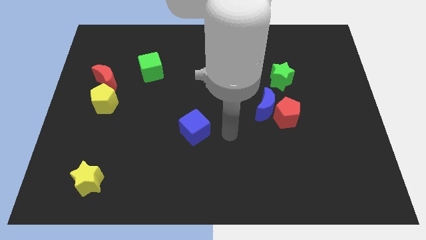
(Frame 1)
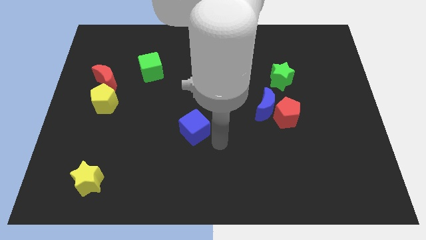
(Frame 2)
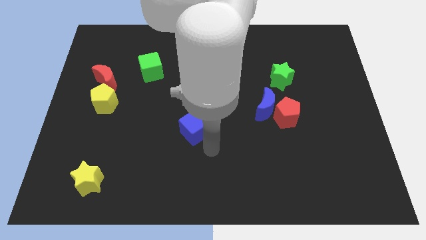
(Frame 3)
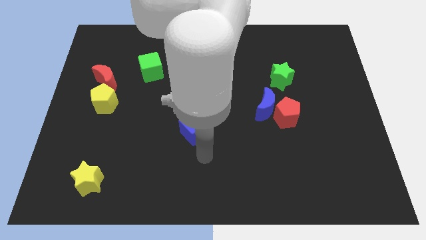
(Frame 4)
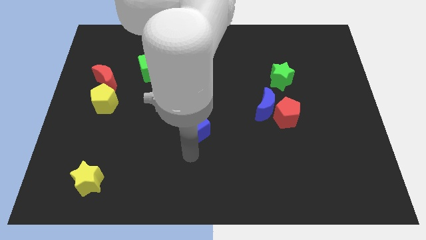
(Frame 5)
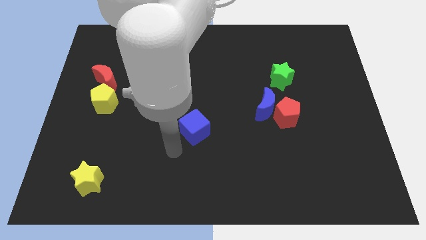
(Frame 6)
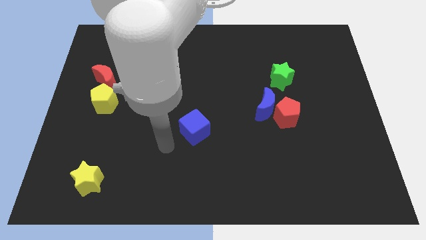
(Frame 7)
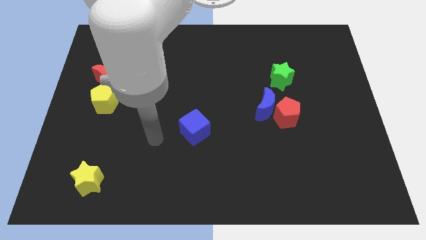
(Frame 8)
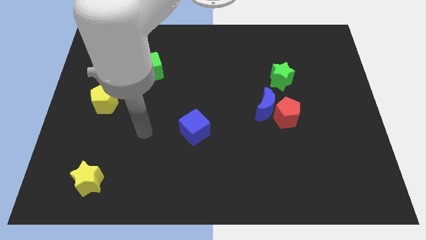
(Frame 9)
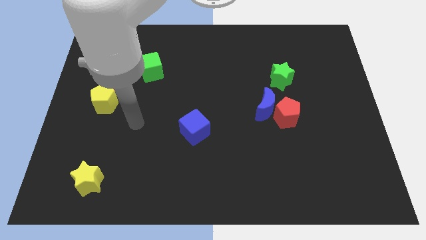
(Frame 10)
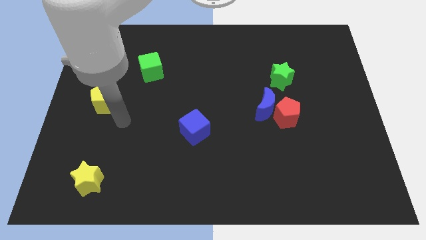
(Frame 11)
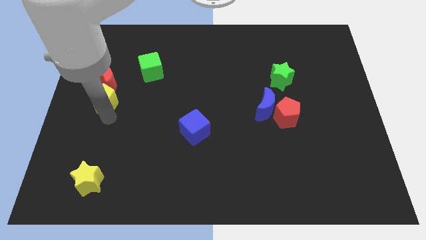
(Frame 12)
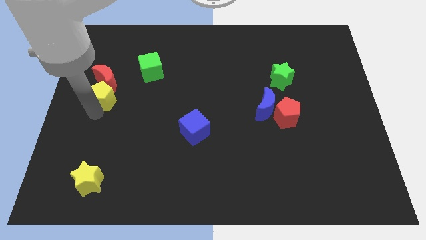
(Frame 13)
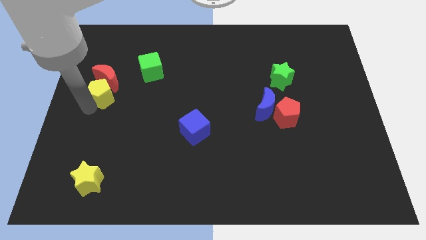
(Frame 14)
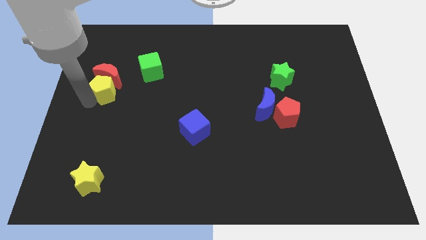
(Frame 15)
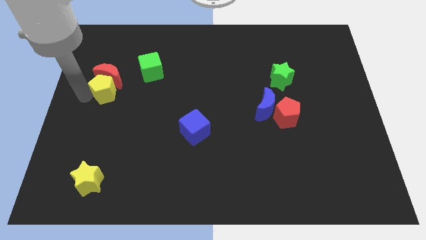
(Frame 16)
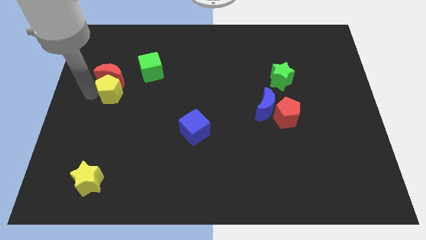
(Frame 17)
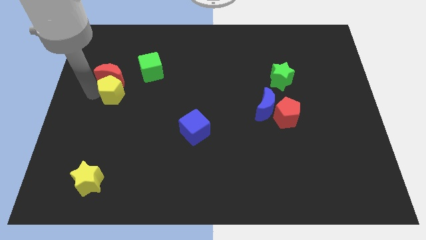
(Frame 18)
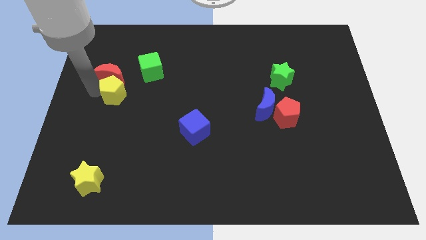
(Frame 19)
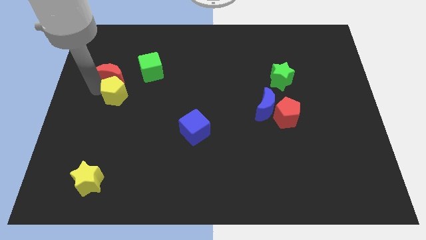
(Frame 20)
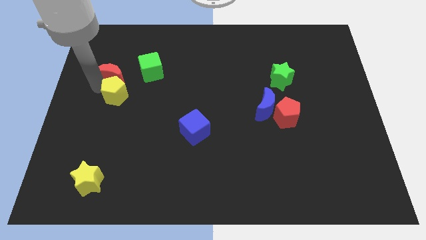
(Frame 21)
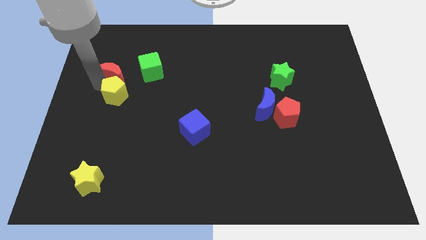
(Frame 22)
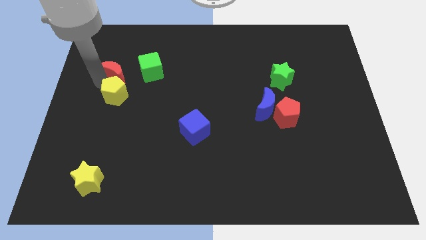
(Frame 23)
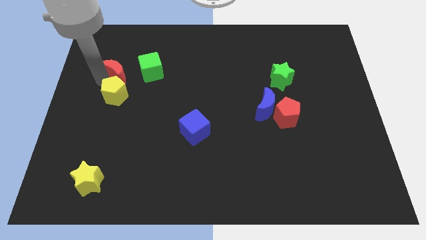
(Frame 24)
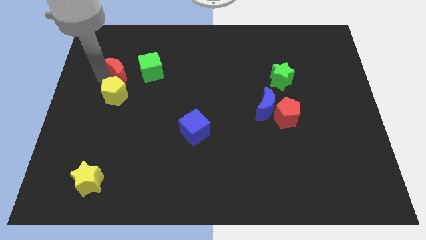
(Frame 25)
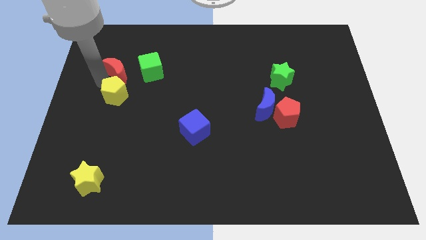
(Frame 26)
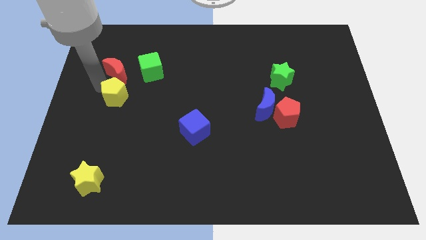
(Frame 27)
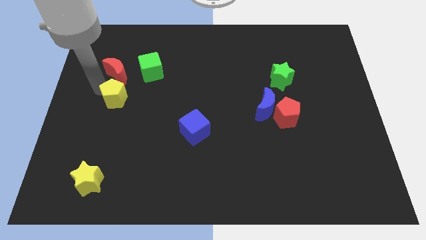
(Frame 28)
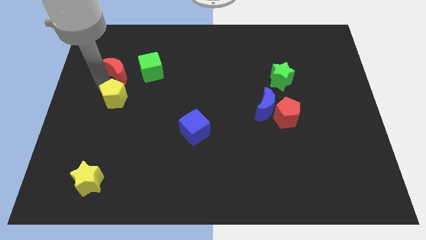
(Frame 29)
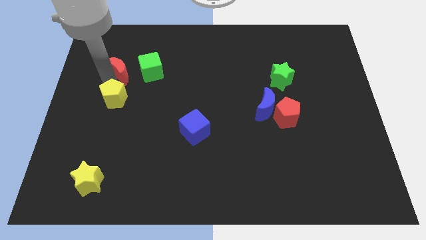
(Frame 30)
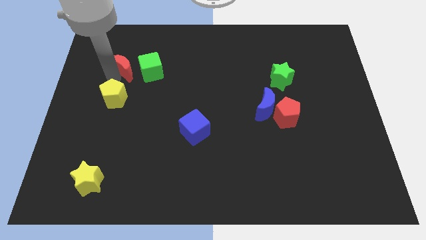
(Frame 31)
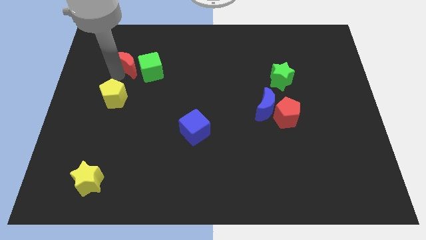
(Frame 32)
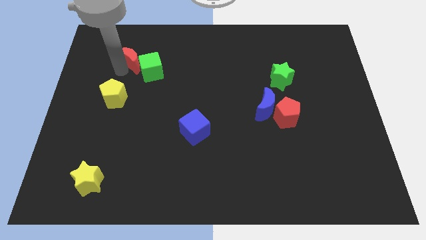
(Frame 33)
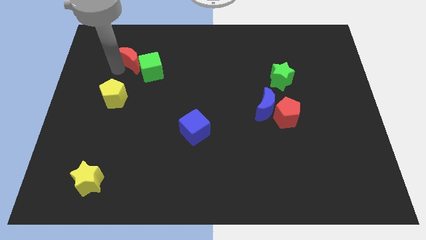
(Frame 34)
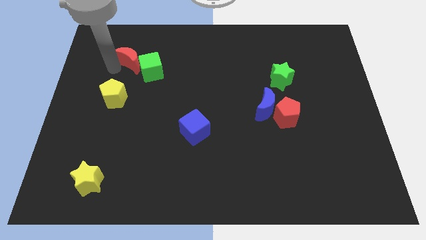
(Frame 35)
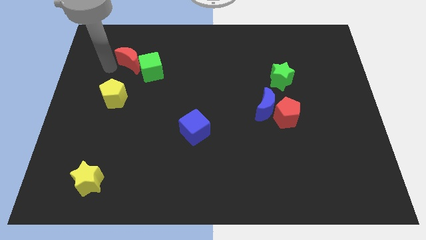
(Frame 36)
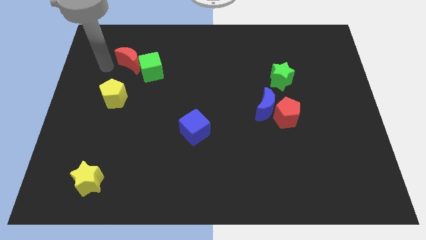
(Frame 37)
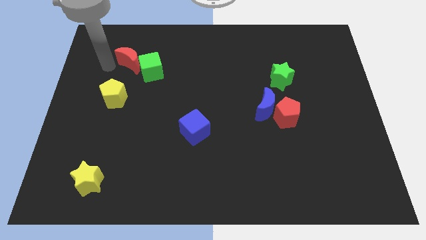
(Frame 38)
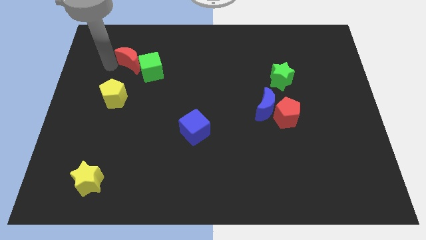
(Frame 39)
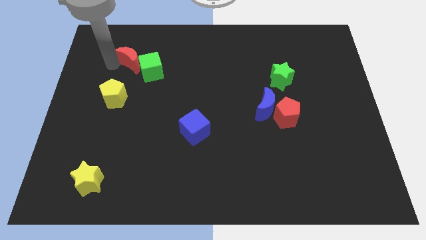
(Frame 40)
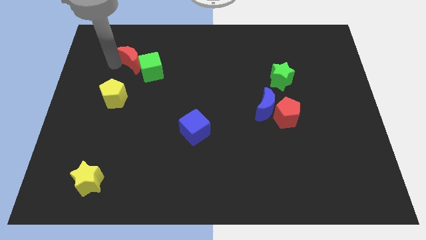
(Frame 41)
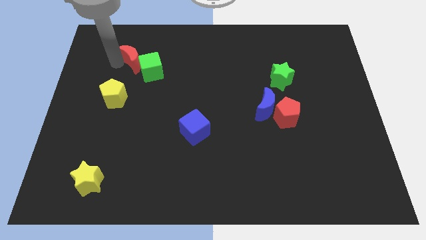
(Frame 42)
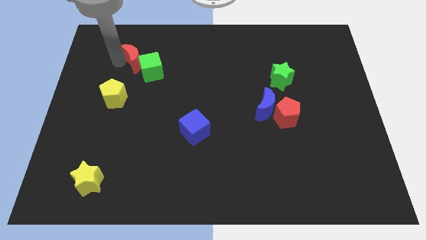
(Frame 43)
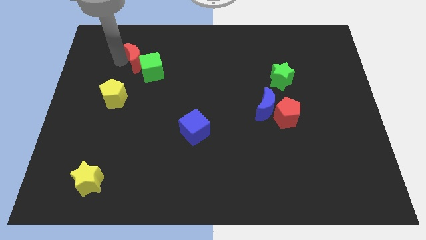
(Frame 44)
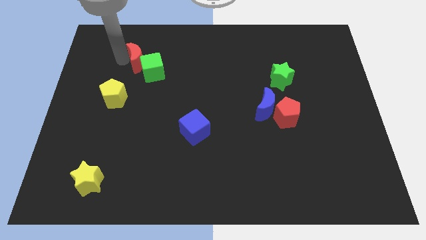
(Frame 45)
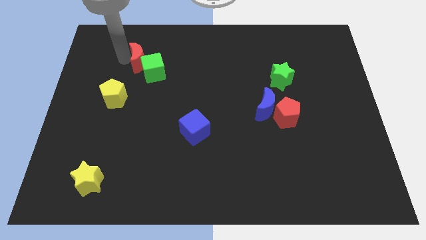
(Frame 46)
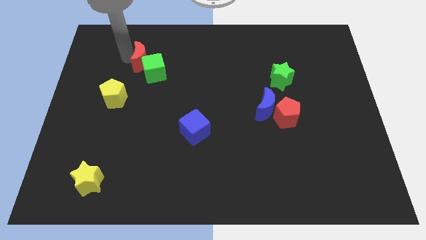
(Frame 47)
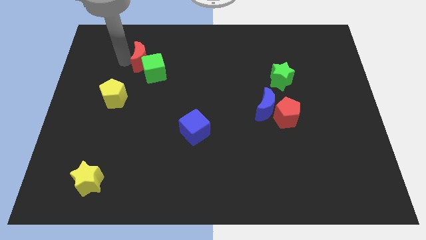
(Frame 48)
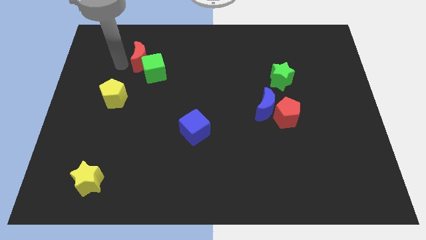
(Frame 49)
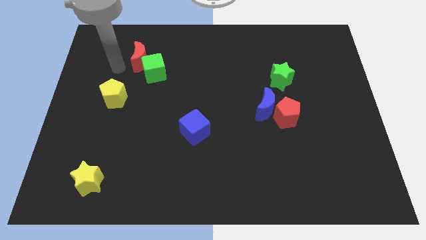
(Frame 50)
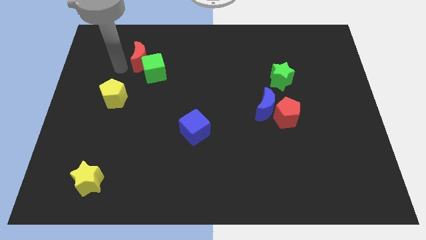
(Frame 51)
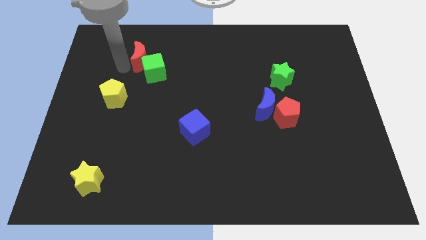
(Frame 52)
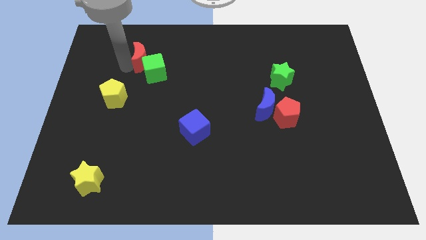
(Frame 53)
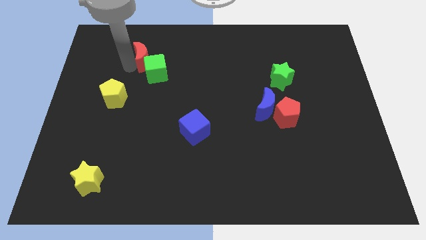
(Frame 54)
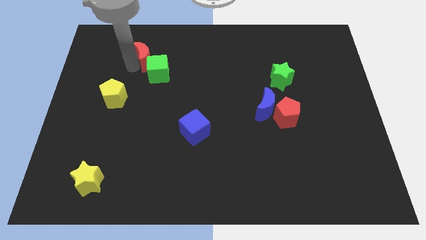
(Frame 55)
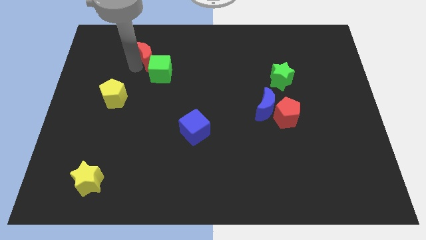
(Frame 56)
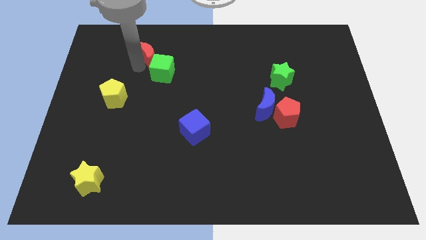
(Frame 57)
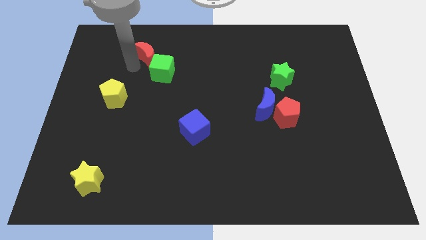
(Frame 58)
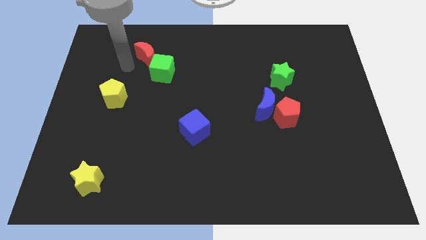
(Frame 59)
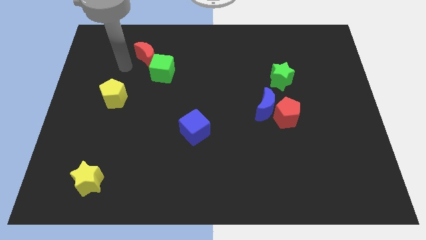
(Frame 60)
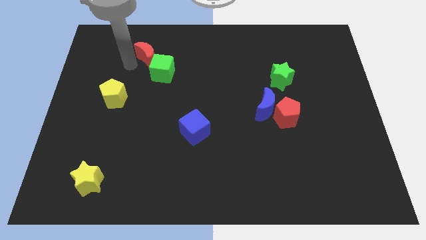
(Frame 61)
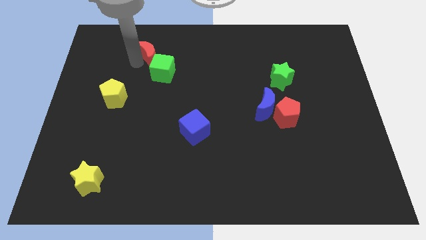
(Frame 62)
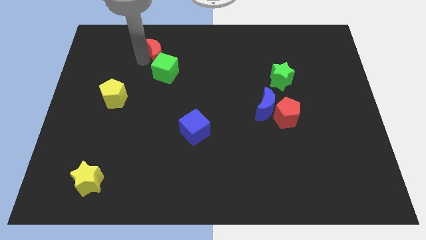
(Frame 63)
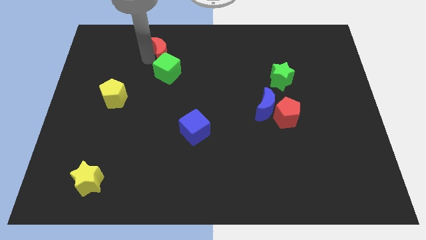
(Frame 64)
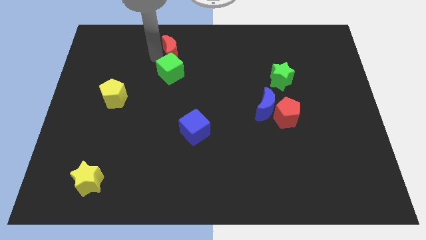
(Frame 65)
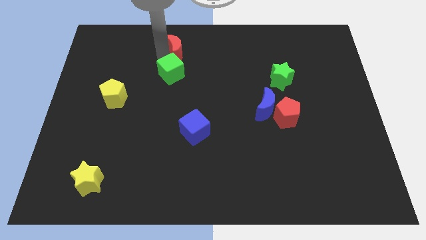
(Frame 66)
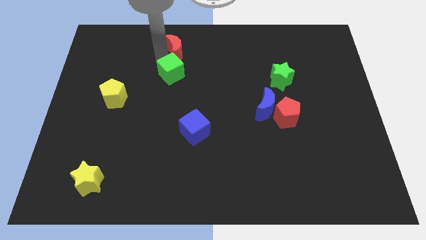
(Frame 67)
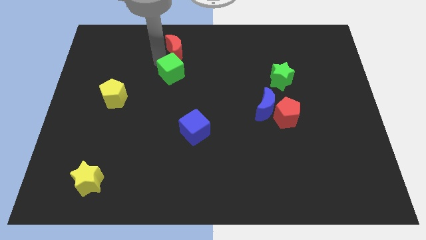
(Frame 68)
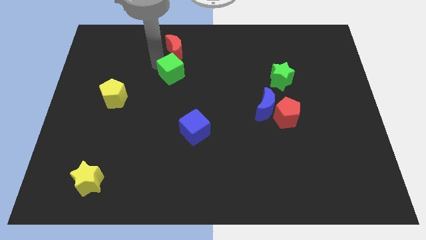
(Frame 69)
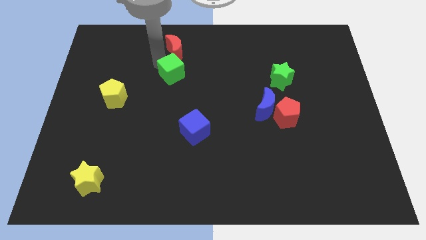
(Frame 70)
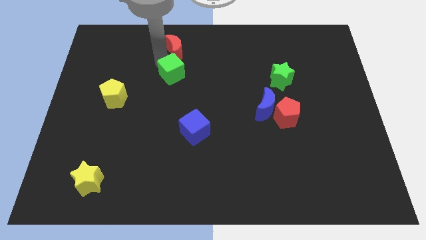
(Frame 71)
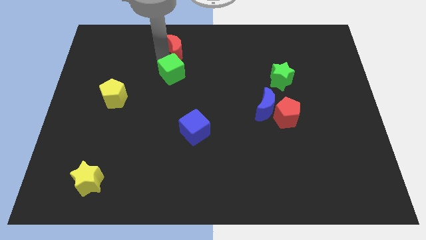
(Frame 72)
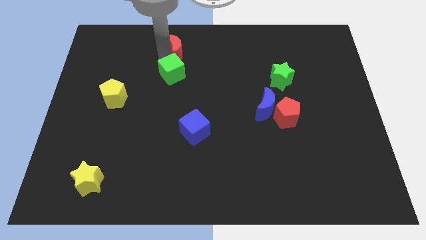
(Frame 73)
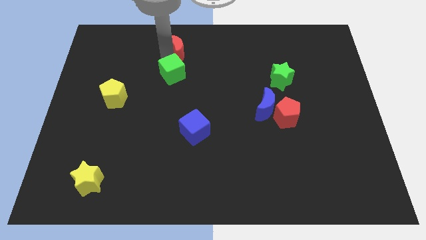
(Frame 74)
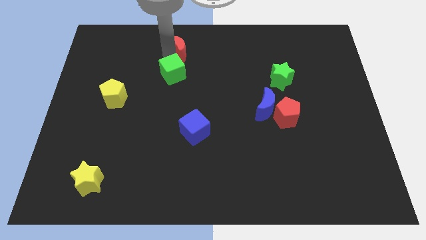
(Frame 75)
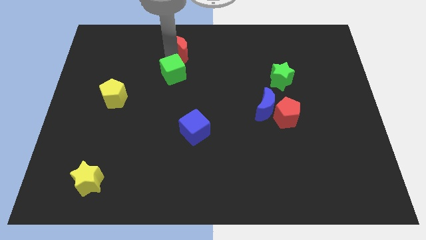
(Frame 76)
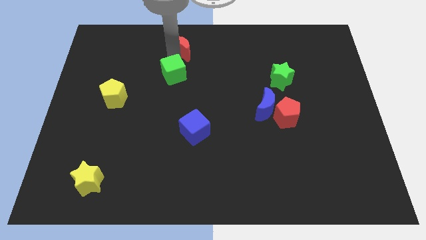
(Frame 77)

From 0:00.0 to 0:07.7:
put the red moon to the top side
